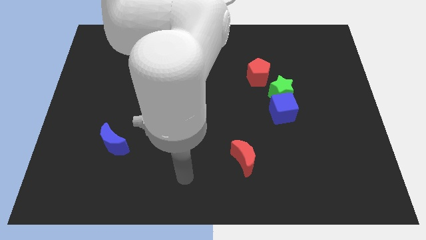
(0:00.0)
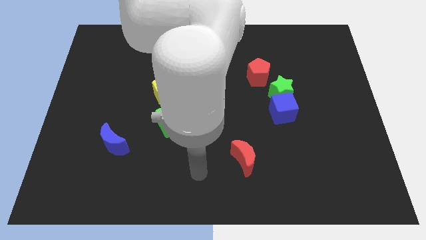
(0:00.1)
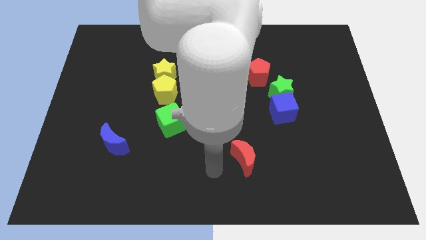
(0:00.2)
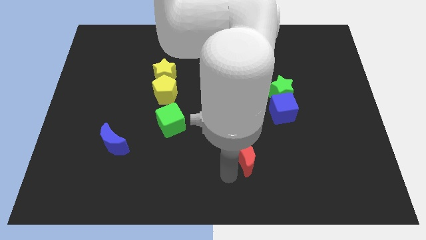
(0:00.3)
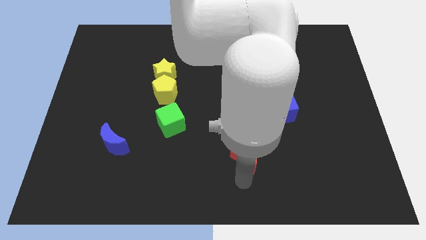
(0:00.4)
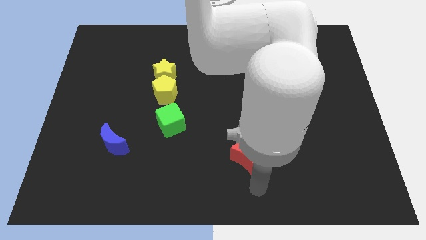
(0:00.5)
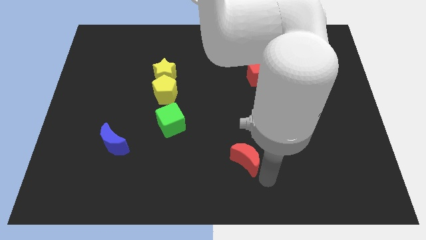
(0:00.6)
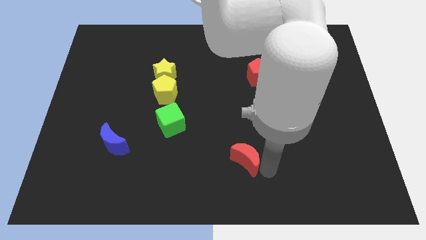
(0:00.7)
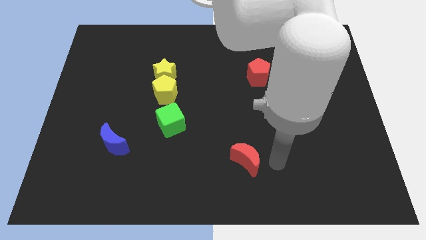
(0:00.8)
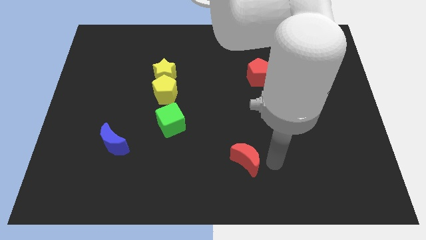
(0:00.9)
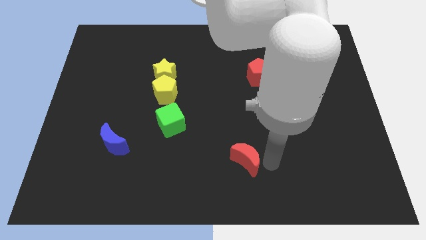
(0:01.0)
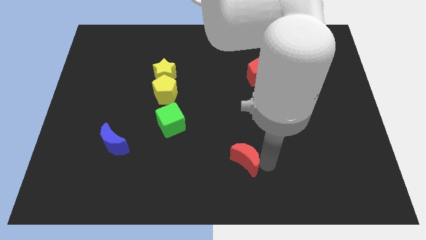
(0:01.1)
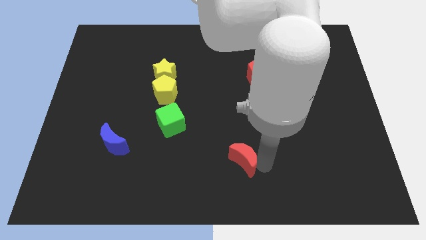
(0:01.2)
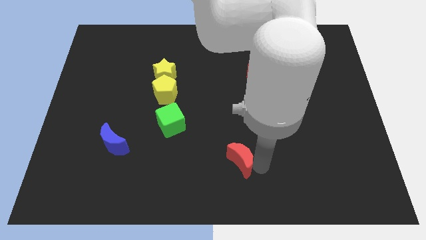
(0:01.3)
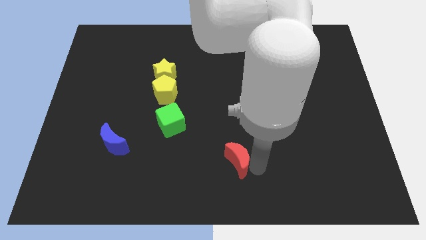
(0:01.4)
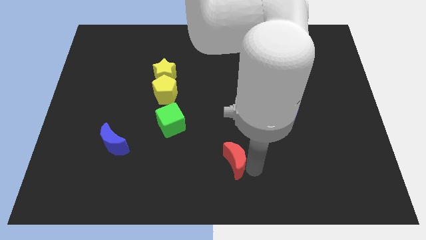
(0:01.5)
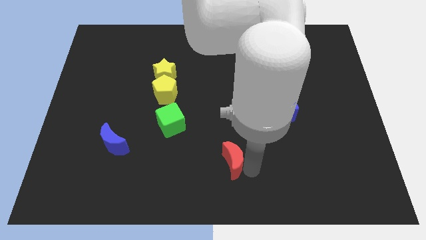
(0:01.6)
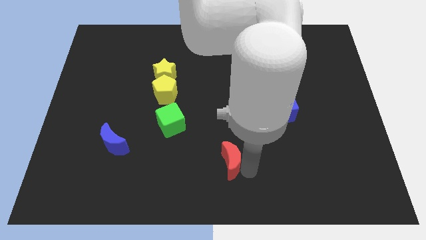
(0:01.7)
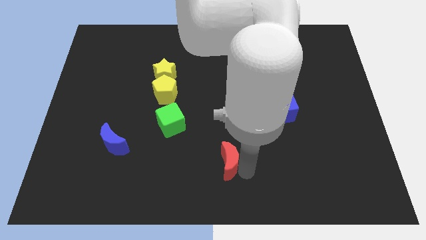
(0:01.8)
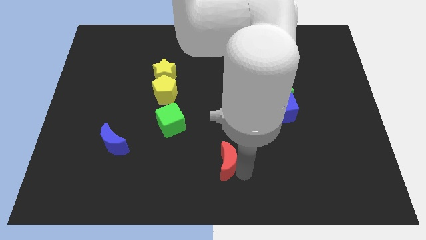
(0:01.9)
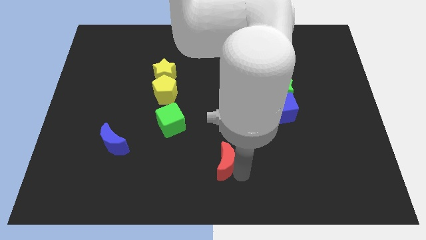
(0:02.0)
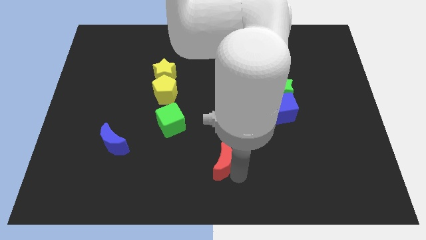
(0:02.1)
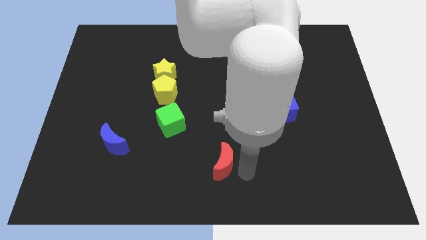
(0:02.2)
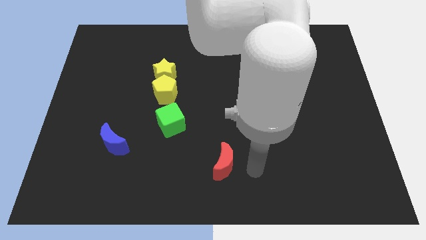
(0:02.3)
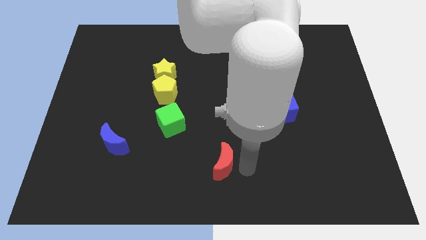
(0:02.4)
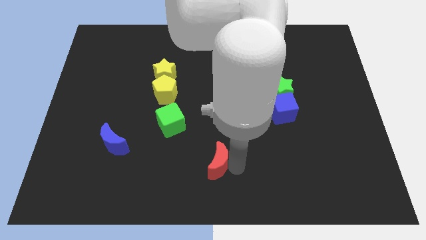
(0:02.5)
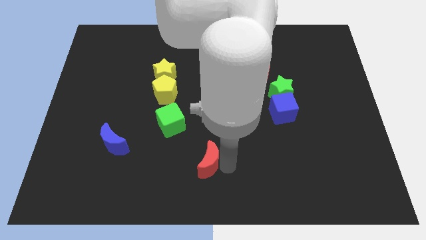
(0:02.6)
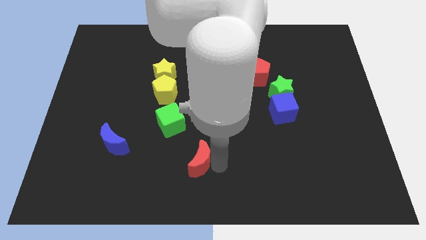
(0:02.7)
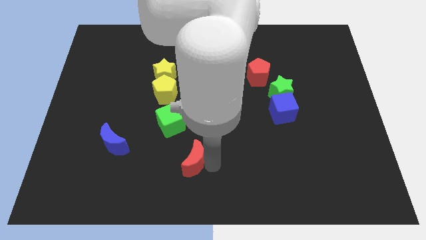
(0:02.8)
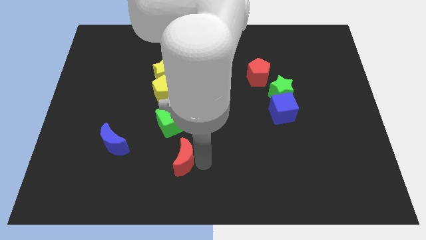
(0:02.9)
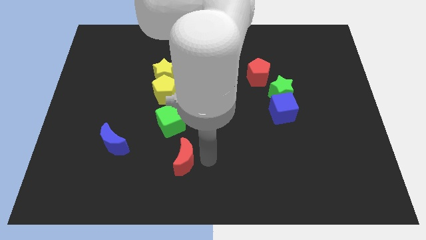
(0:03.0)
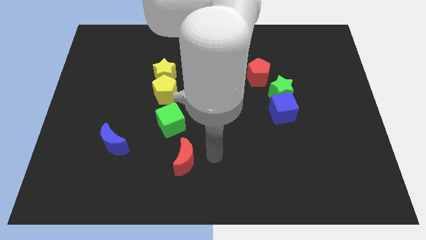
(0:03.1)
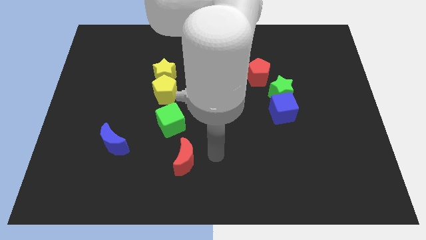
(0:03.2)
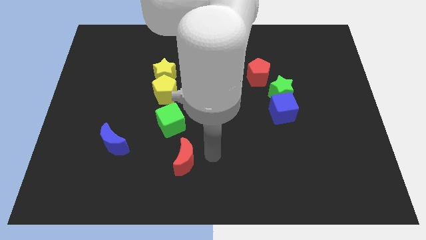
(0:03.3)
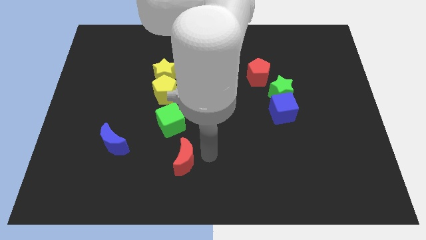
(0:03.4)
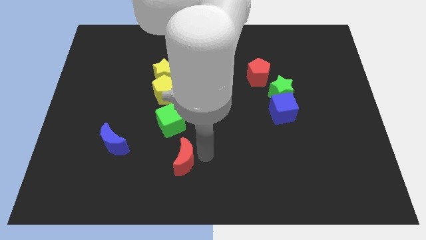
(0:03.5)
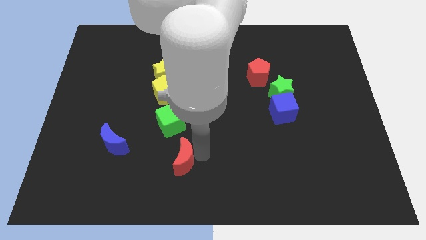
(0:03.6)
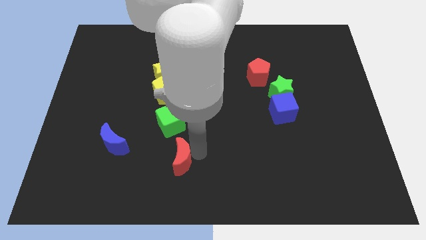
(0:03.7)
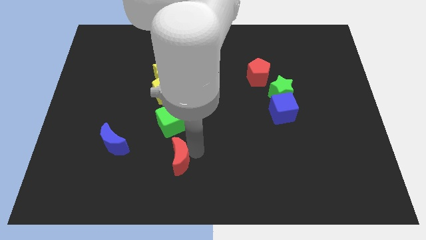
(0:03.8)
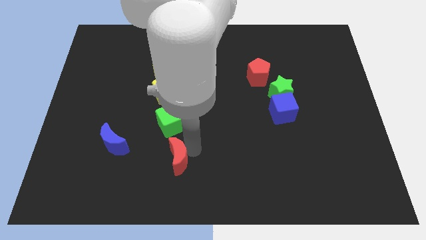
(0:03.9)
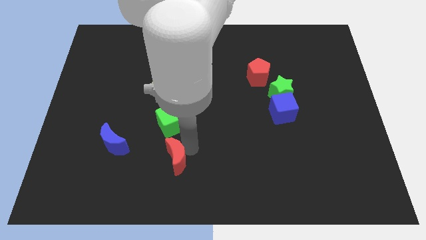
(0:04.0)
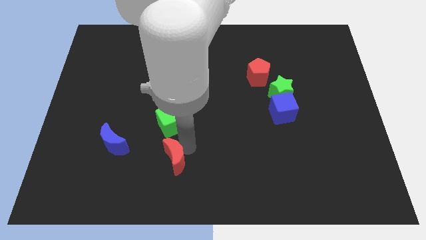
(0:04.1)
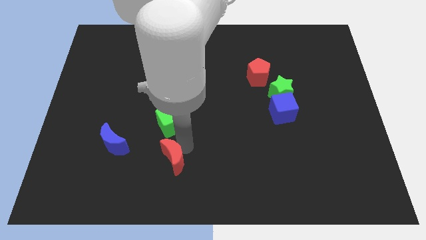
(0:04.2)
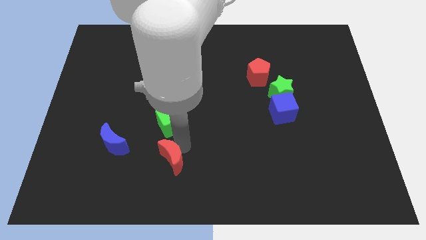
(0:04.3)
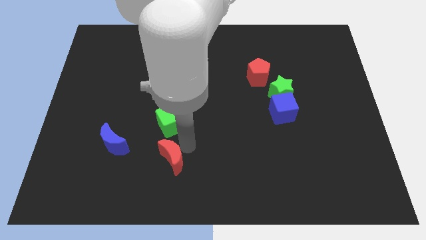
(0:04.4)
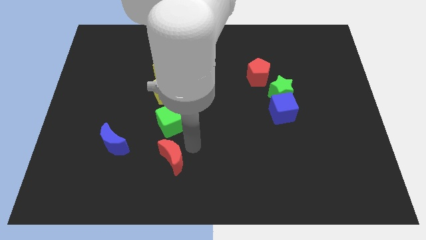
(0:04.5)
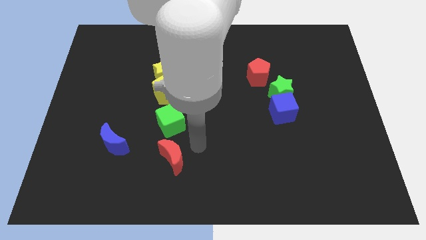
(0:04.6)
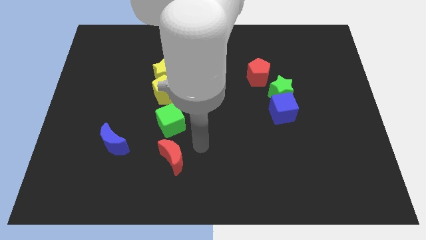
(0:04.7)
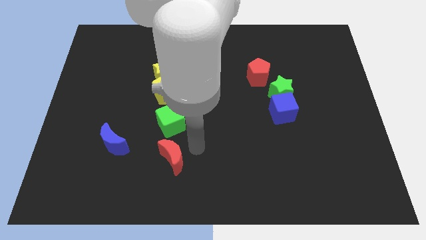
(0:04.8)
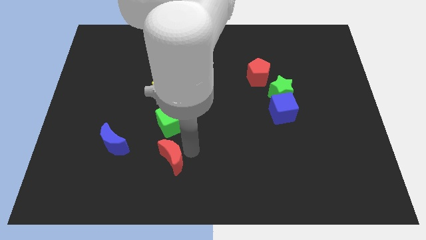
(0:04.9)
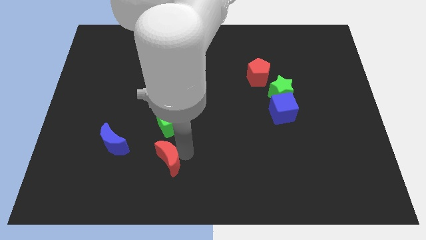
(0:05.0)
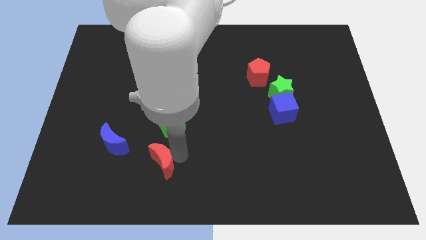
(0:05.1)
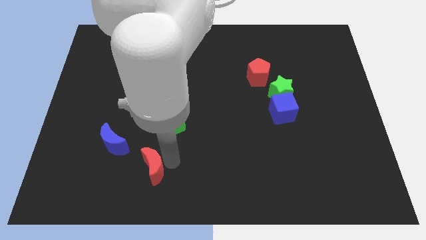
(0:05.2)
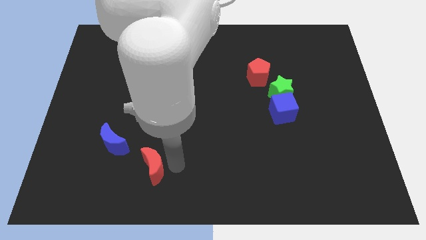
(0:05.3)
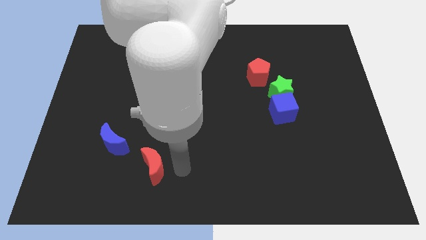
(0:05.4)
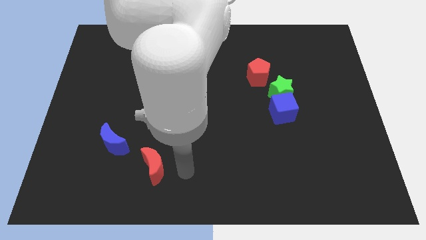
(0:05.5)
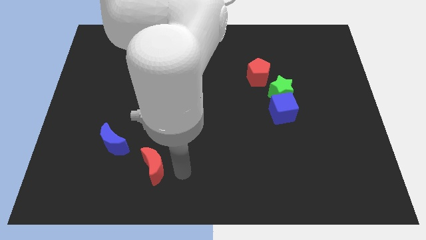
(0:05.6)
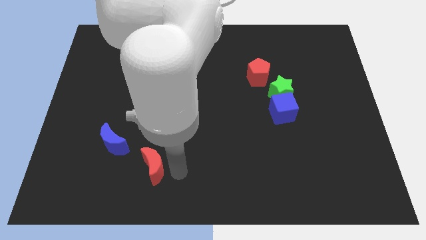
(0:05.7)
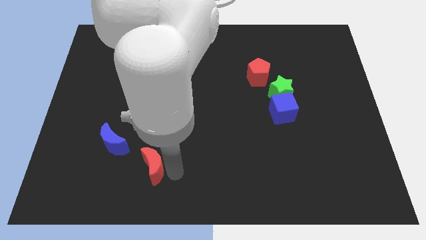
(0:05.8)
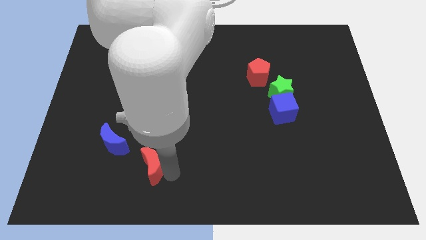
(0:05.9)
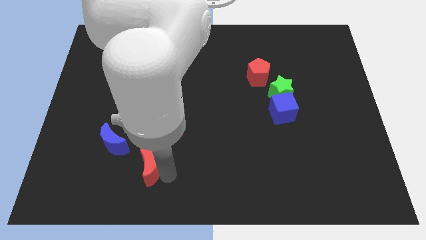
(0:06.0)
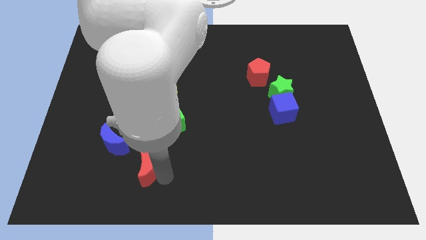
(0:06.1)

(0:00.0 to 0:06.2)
slide the red moon to the left

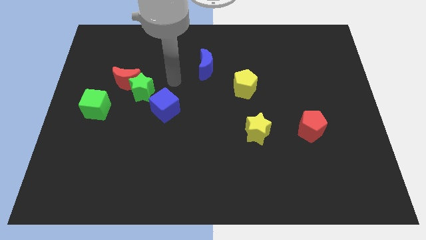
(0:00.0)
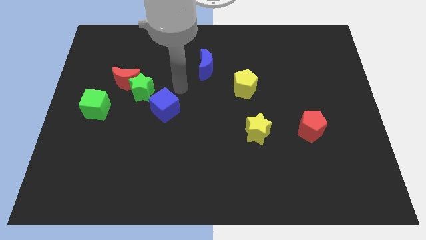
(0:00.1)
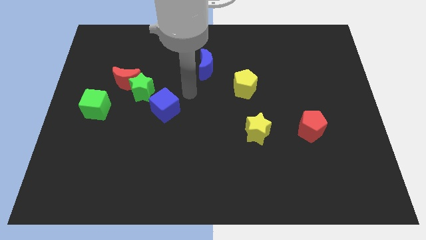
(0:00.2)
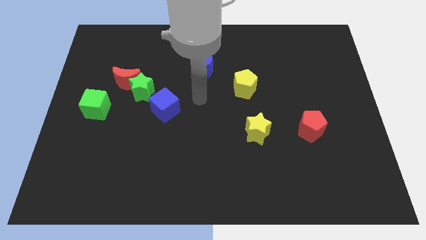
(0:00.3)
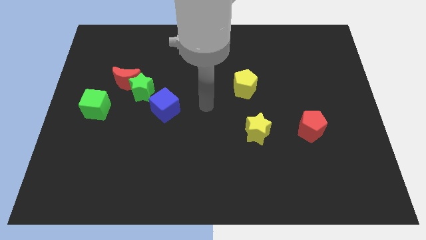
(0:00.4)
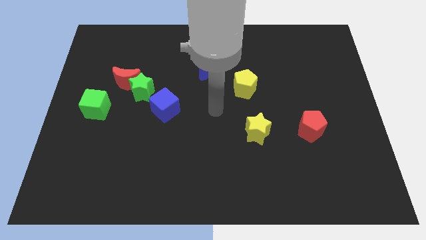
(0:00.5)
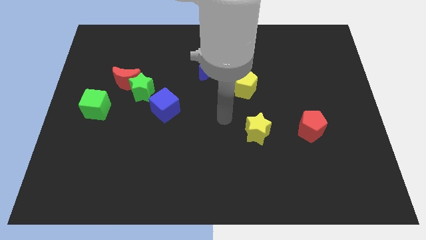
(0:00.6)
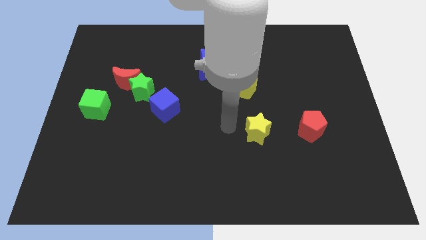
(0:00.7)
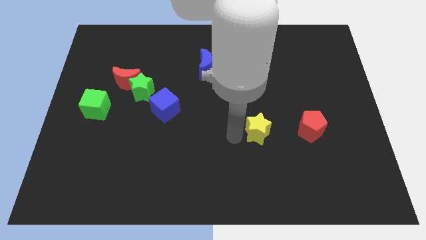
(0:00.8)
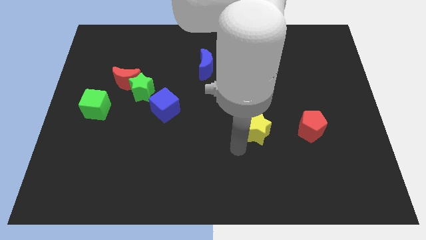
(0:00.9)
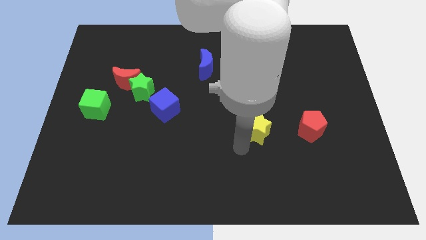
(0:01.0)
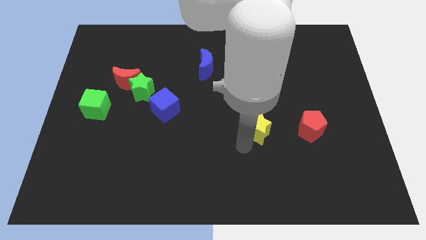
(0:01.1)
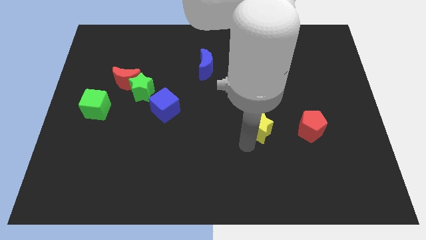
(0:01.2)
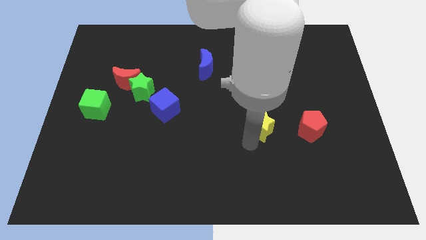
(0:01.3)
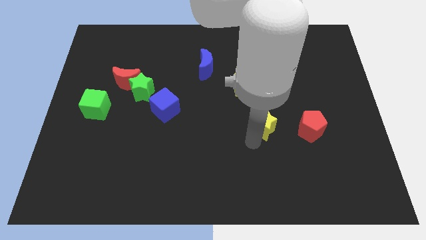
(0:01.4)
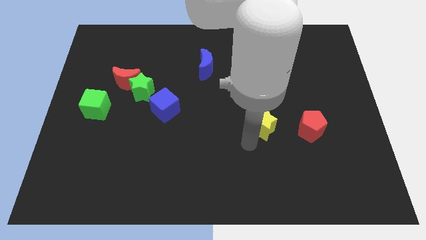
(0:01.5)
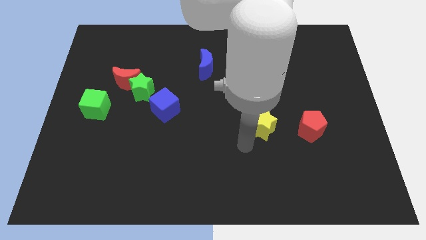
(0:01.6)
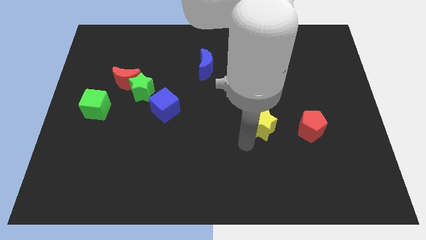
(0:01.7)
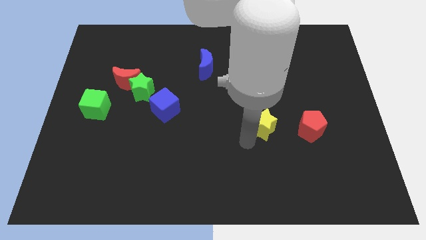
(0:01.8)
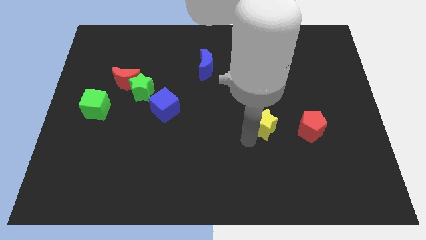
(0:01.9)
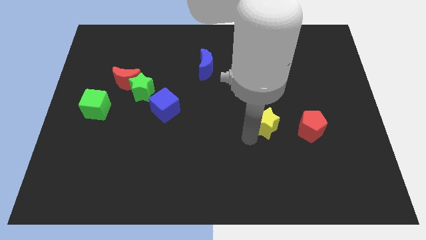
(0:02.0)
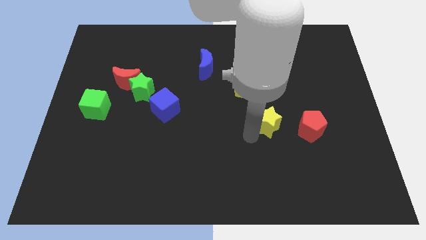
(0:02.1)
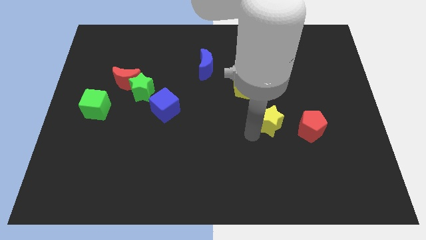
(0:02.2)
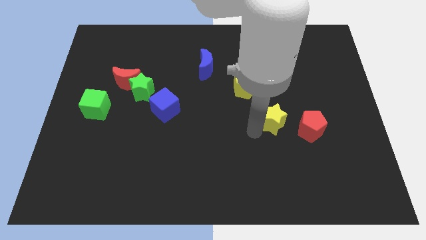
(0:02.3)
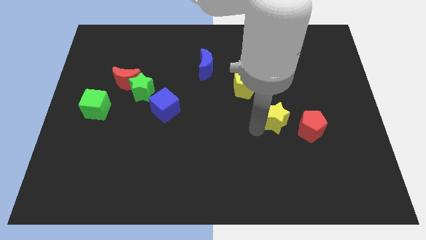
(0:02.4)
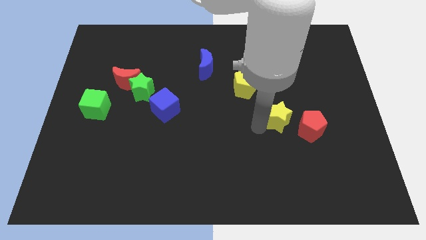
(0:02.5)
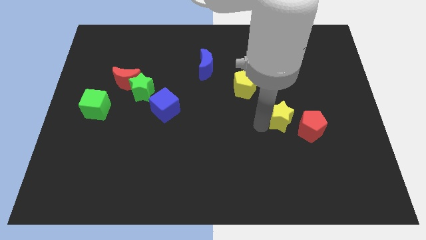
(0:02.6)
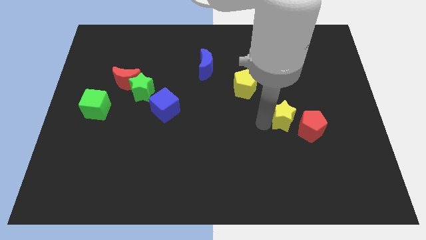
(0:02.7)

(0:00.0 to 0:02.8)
push the yellow star diagonally upwards and to the right a little
